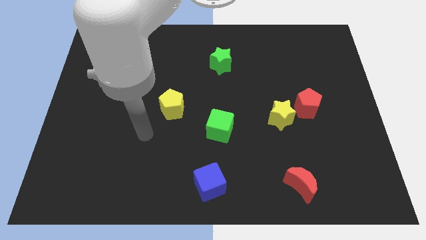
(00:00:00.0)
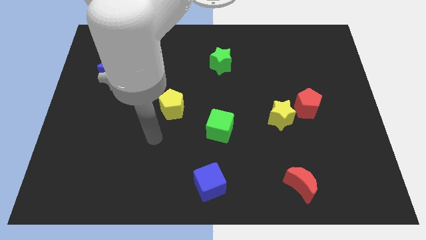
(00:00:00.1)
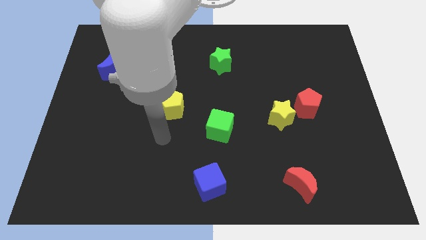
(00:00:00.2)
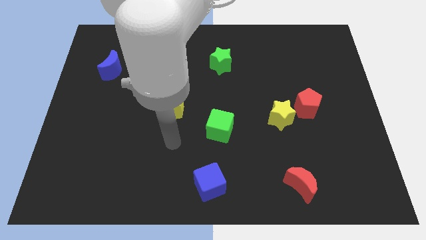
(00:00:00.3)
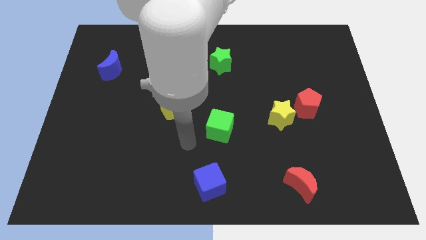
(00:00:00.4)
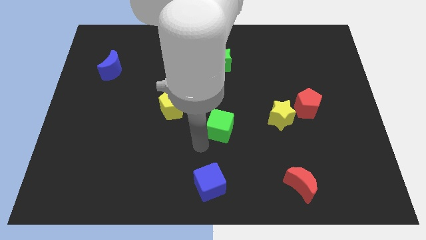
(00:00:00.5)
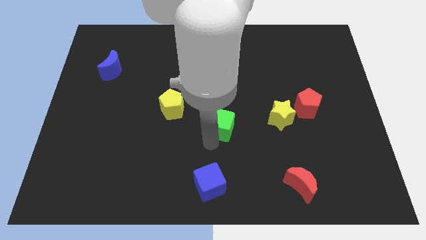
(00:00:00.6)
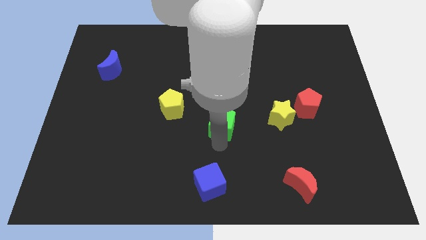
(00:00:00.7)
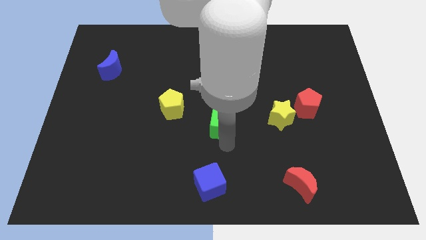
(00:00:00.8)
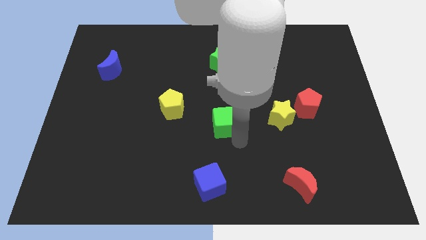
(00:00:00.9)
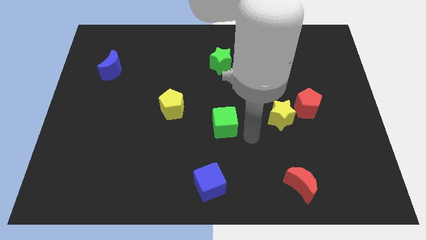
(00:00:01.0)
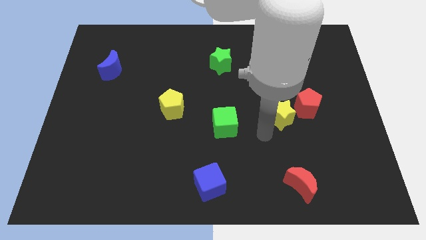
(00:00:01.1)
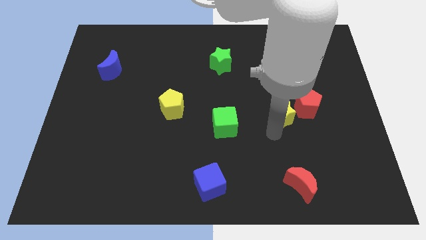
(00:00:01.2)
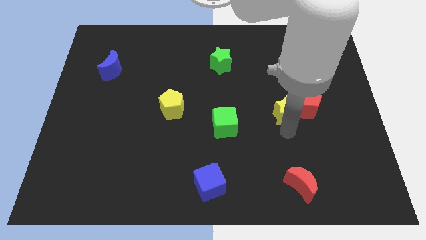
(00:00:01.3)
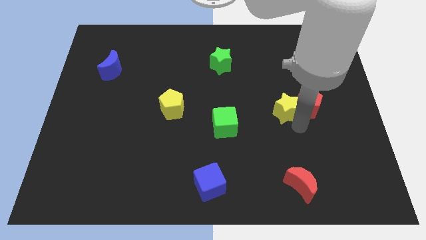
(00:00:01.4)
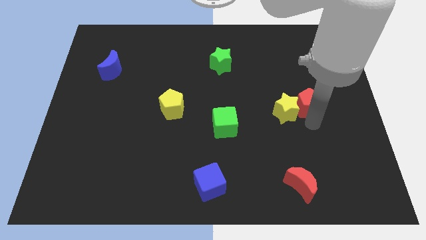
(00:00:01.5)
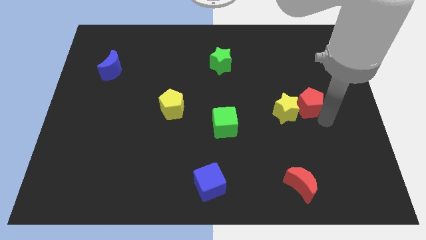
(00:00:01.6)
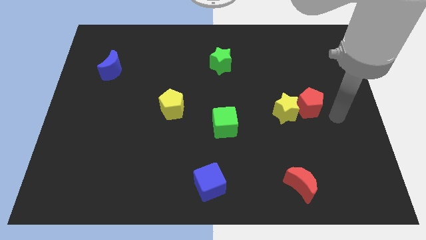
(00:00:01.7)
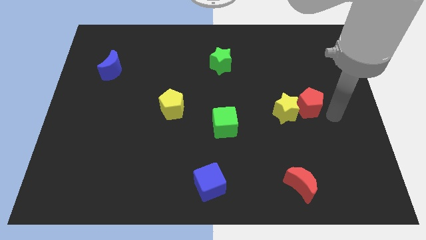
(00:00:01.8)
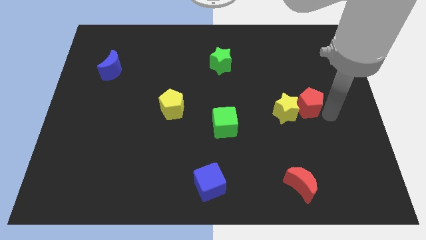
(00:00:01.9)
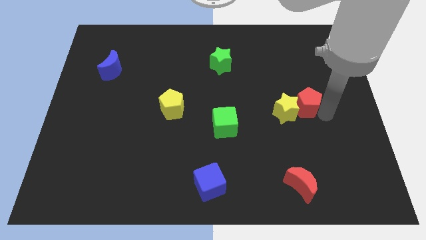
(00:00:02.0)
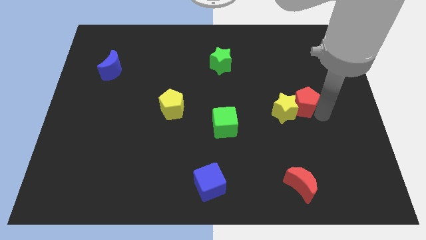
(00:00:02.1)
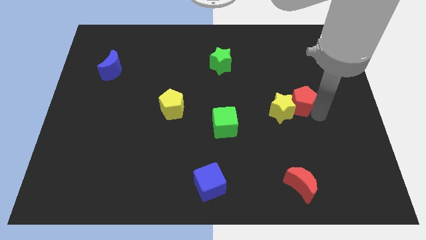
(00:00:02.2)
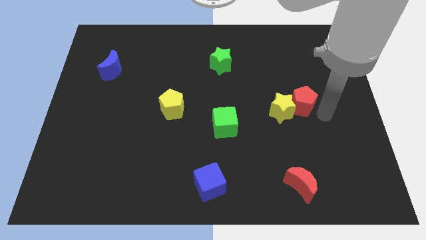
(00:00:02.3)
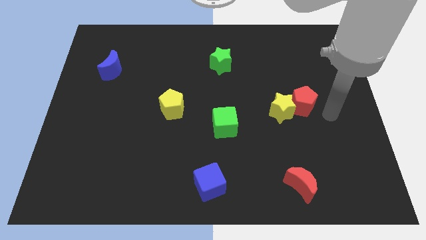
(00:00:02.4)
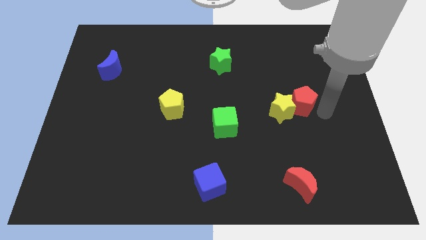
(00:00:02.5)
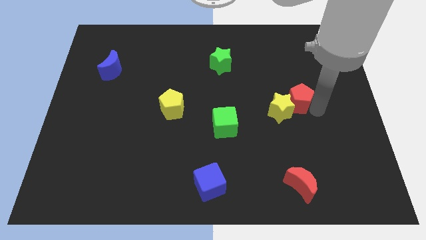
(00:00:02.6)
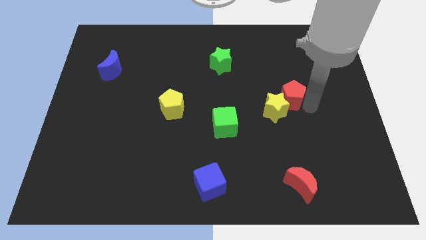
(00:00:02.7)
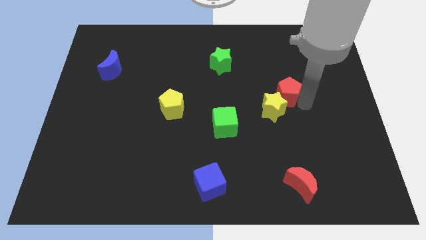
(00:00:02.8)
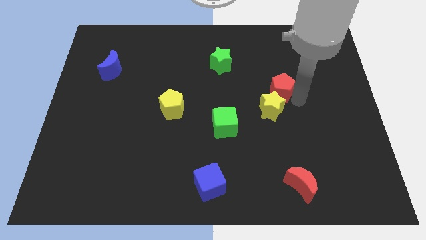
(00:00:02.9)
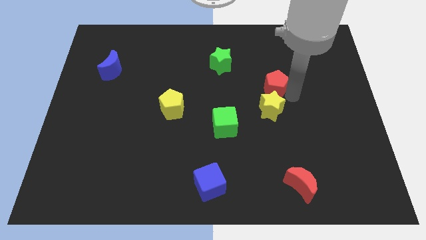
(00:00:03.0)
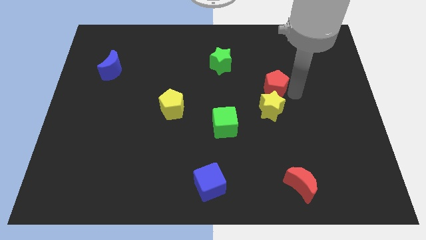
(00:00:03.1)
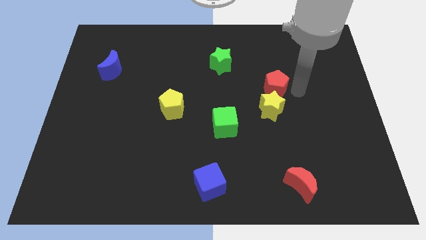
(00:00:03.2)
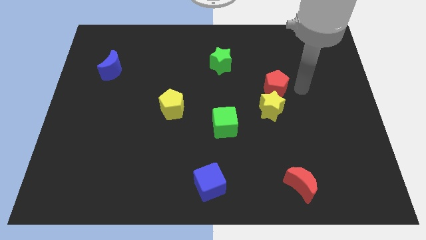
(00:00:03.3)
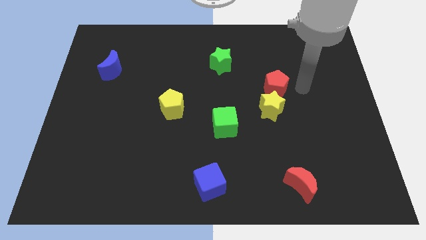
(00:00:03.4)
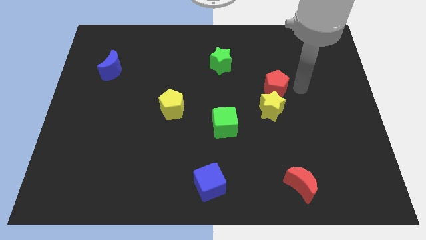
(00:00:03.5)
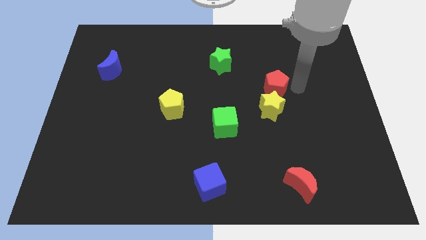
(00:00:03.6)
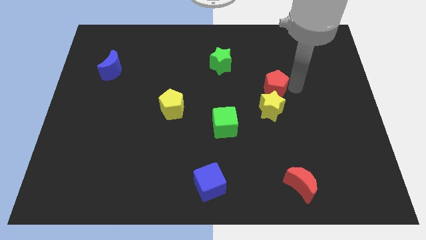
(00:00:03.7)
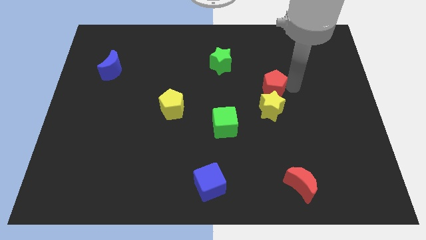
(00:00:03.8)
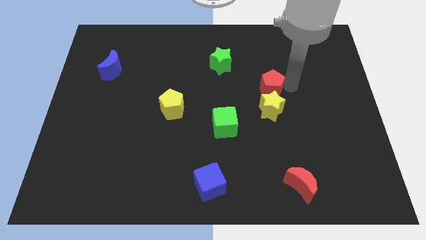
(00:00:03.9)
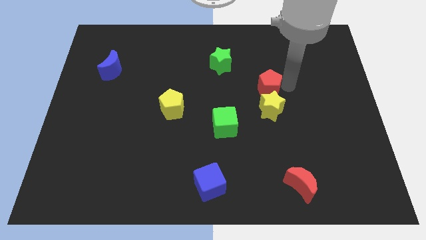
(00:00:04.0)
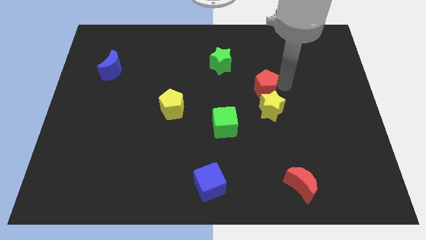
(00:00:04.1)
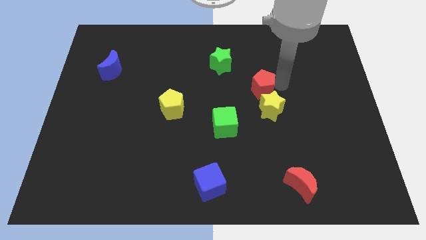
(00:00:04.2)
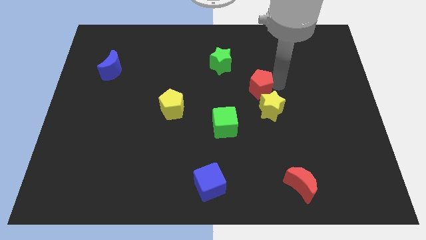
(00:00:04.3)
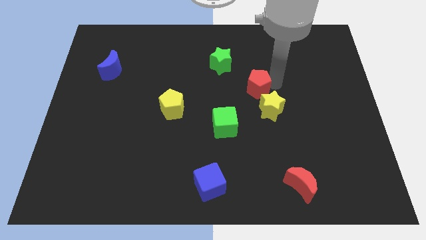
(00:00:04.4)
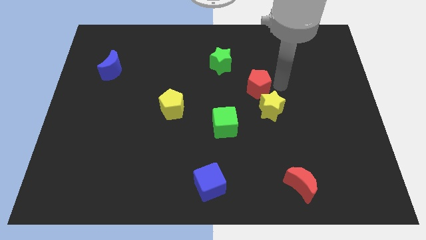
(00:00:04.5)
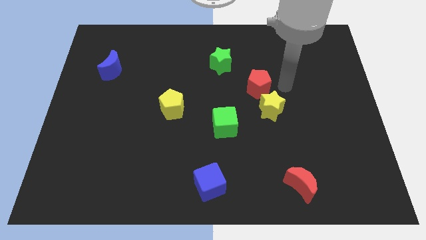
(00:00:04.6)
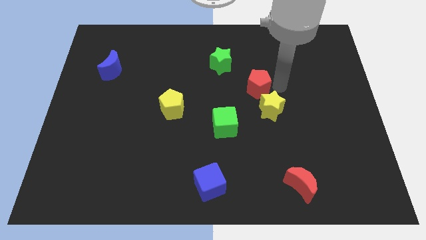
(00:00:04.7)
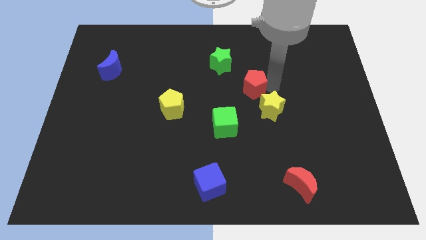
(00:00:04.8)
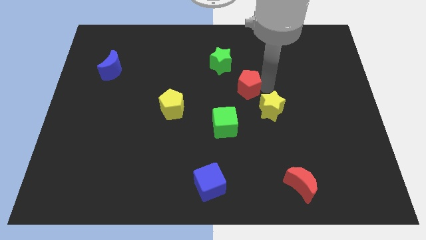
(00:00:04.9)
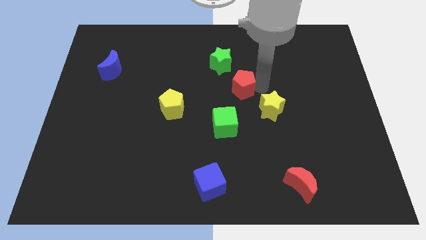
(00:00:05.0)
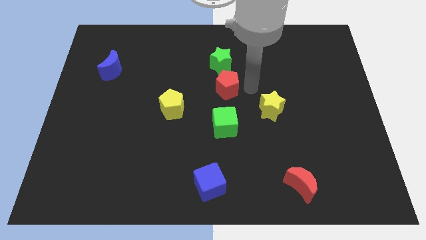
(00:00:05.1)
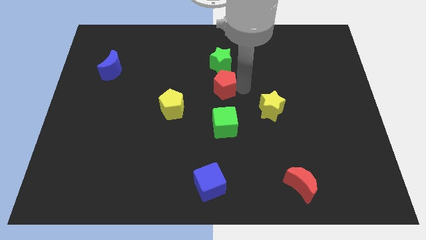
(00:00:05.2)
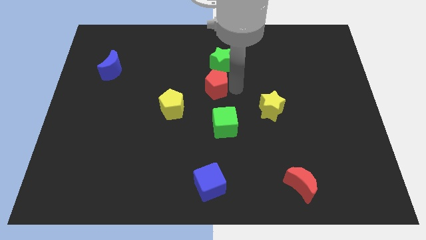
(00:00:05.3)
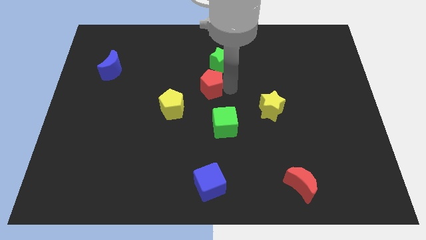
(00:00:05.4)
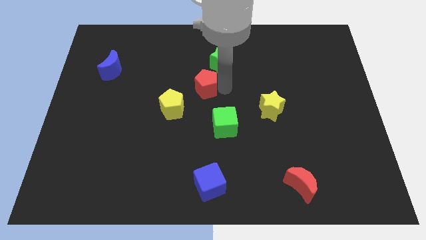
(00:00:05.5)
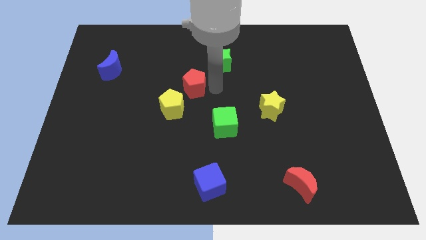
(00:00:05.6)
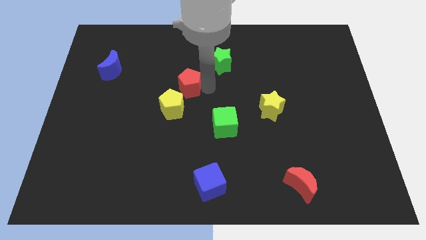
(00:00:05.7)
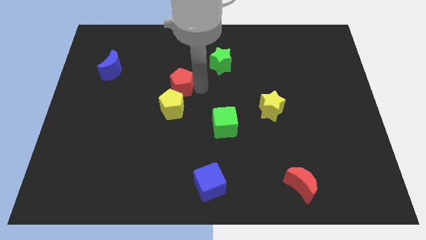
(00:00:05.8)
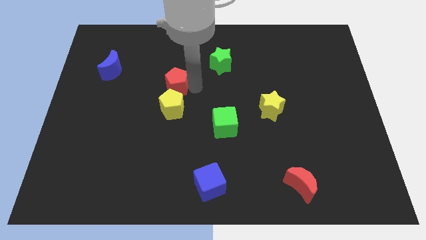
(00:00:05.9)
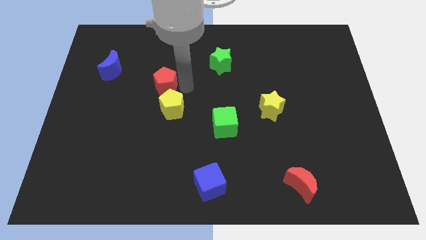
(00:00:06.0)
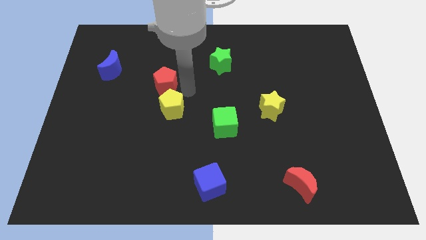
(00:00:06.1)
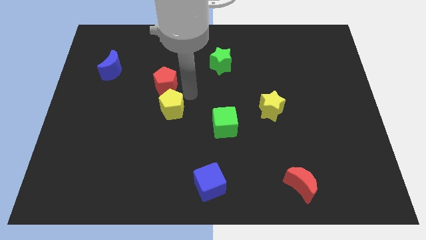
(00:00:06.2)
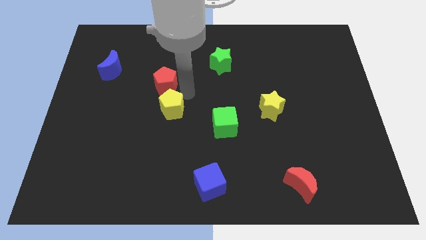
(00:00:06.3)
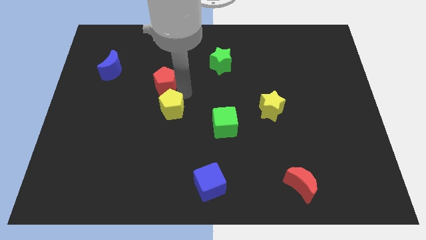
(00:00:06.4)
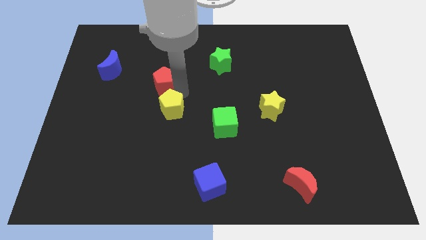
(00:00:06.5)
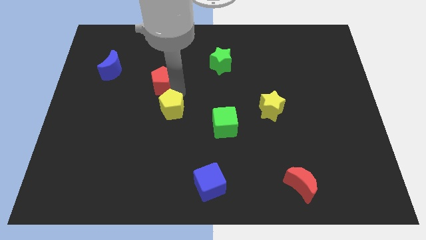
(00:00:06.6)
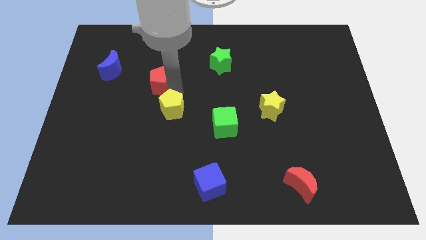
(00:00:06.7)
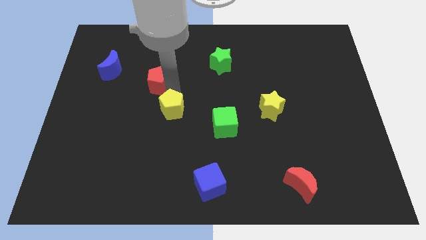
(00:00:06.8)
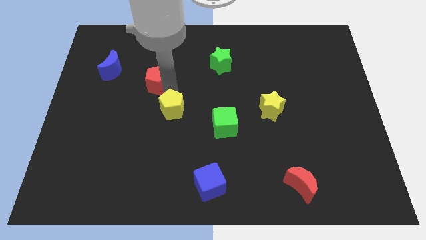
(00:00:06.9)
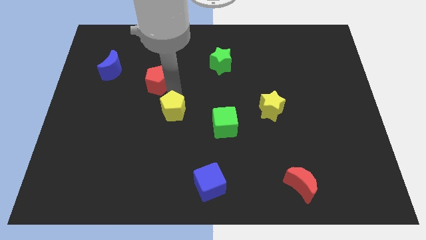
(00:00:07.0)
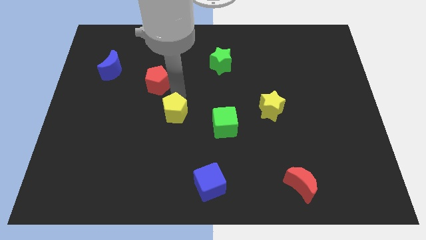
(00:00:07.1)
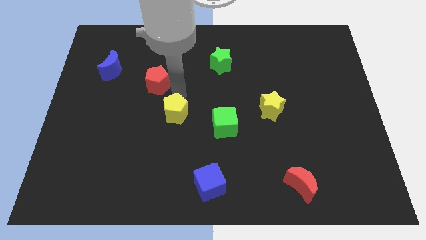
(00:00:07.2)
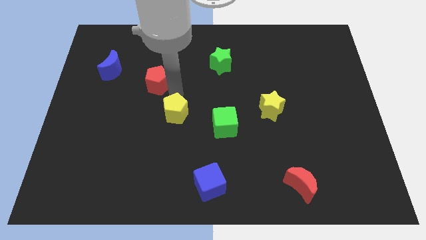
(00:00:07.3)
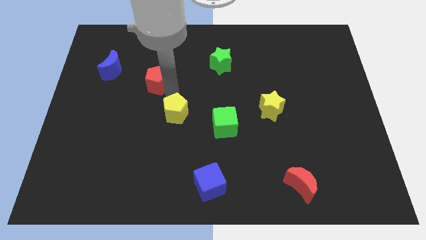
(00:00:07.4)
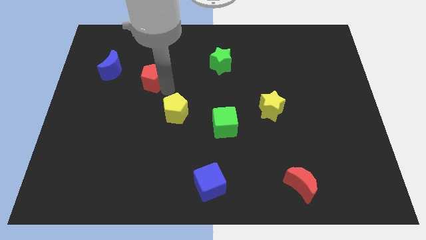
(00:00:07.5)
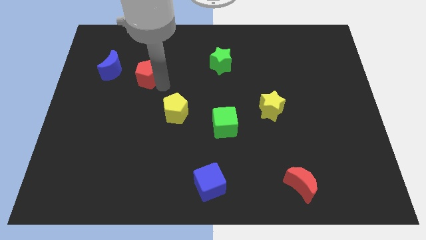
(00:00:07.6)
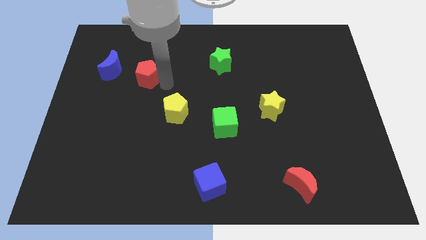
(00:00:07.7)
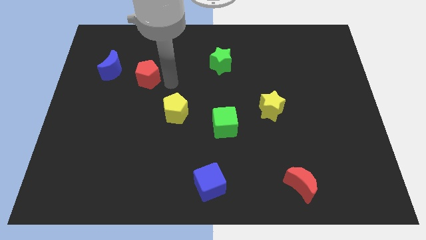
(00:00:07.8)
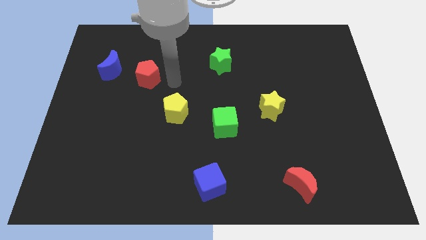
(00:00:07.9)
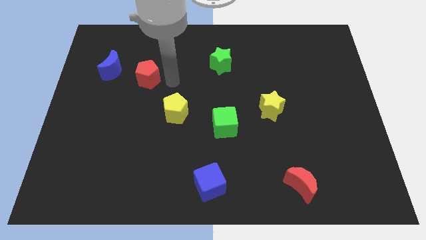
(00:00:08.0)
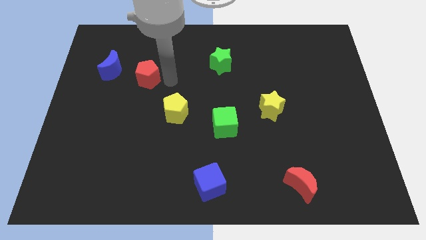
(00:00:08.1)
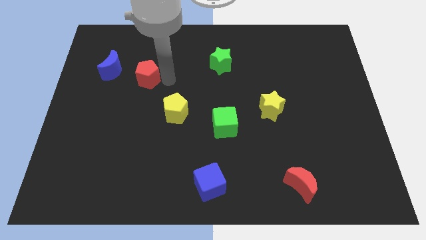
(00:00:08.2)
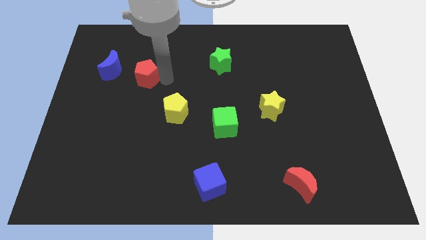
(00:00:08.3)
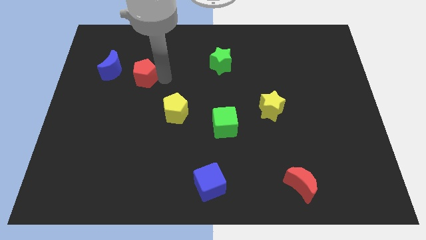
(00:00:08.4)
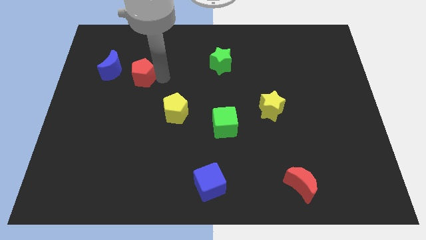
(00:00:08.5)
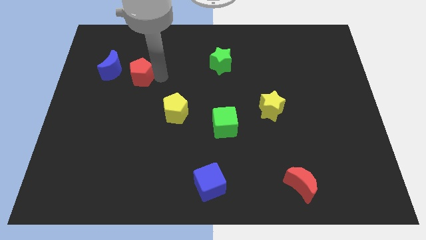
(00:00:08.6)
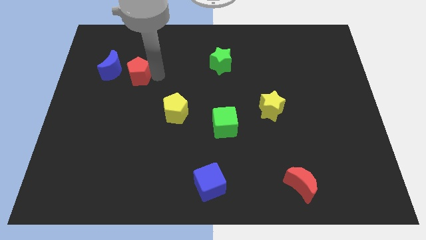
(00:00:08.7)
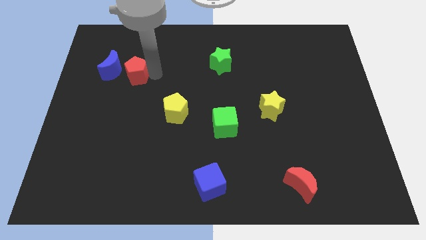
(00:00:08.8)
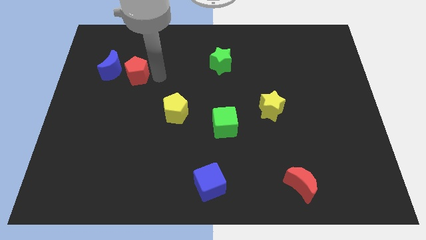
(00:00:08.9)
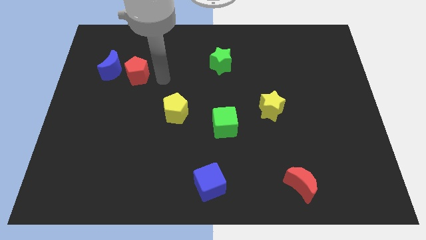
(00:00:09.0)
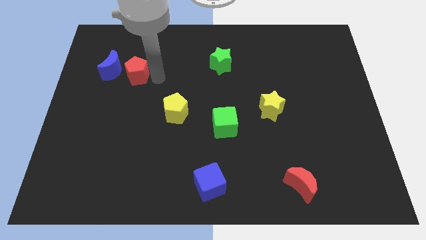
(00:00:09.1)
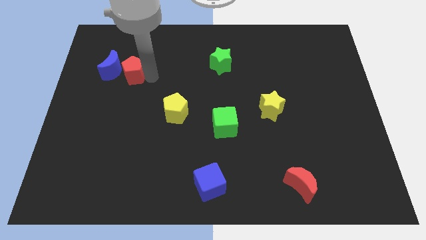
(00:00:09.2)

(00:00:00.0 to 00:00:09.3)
move the red pentagon towards the blue moon
